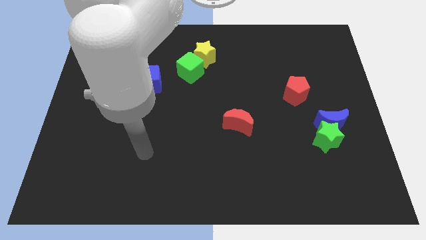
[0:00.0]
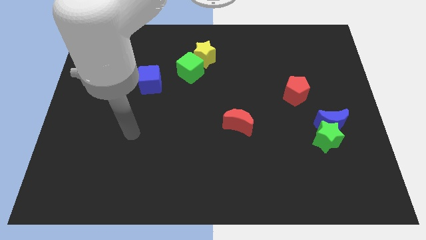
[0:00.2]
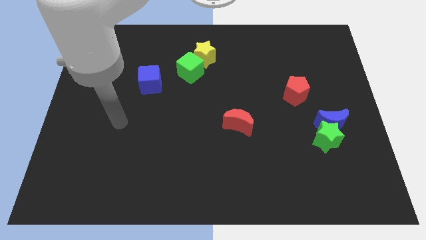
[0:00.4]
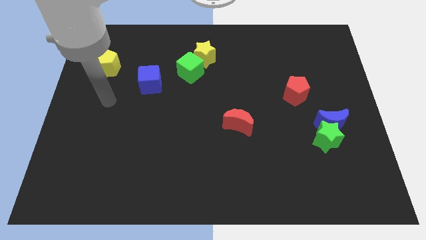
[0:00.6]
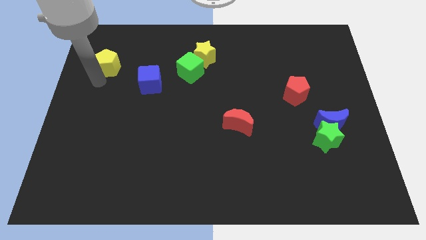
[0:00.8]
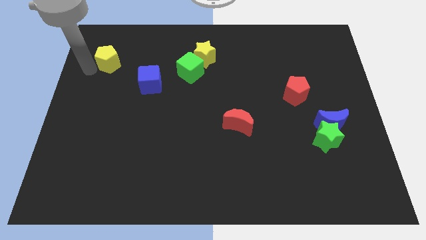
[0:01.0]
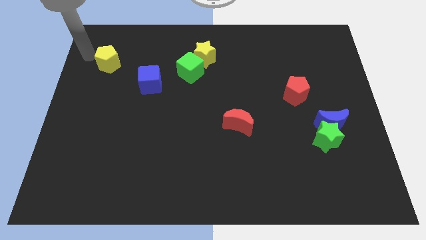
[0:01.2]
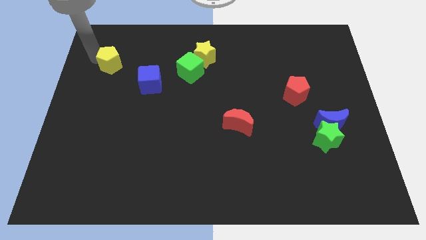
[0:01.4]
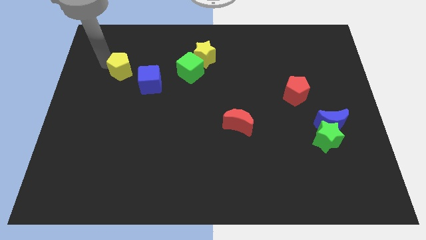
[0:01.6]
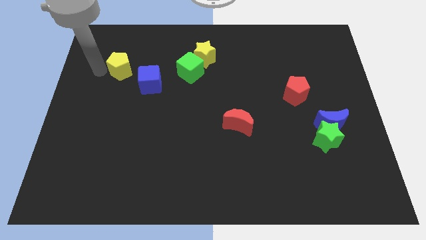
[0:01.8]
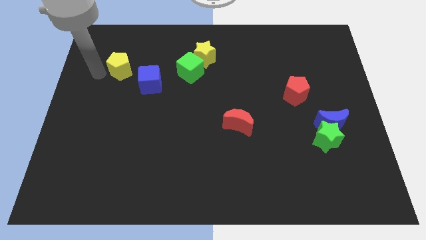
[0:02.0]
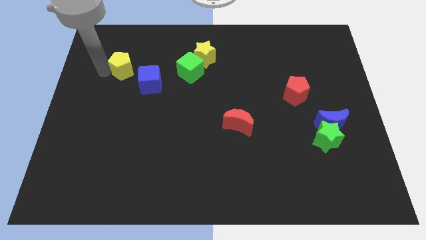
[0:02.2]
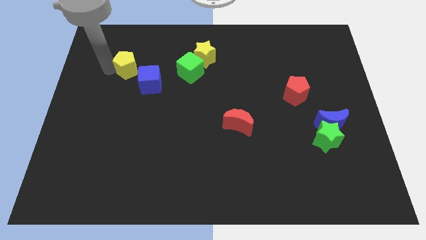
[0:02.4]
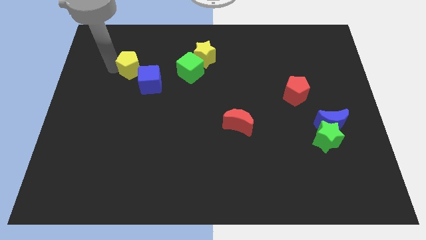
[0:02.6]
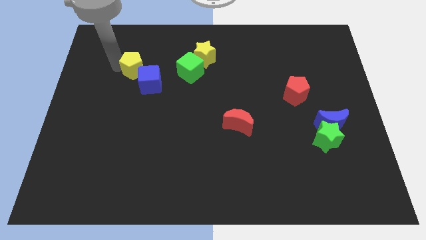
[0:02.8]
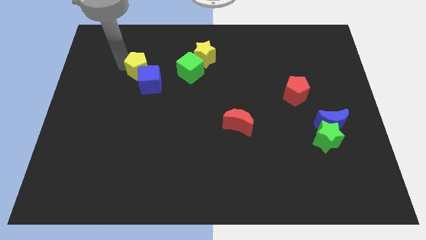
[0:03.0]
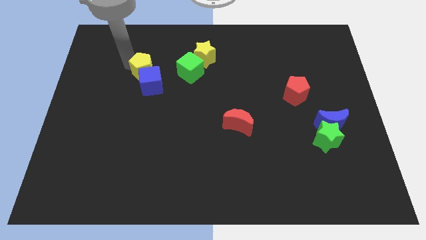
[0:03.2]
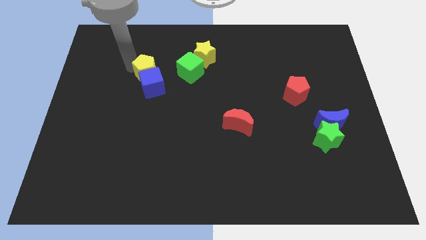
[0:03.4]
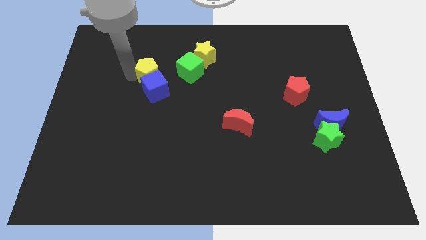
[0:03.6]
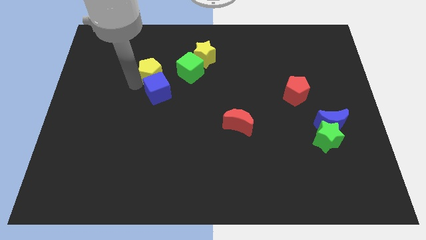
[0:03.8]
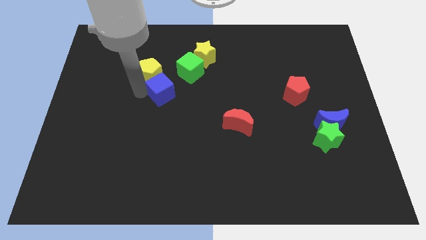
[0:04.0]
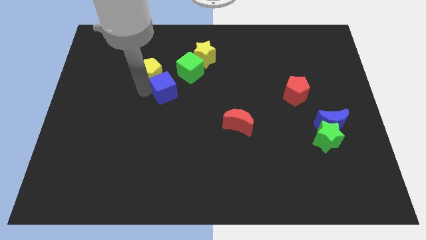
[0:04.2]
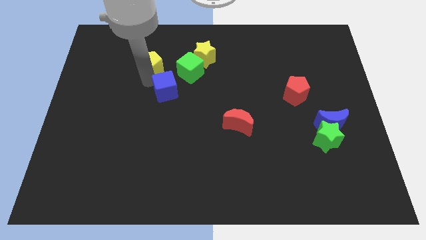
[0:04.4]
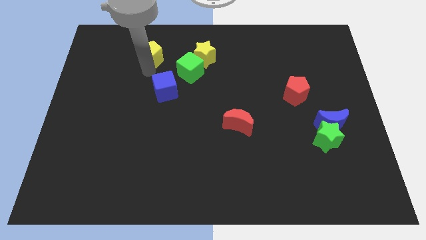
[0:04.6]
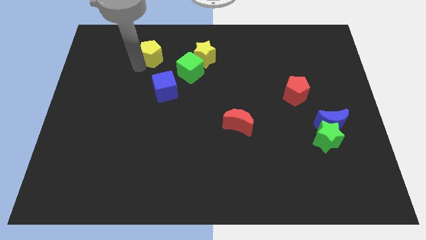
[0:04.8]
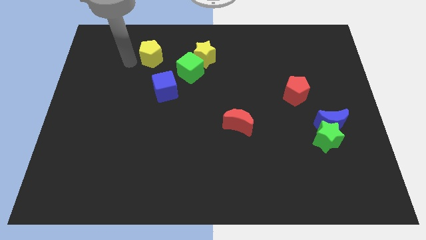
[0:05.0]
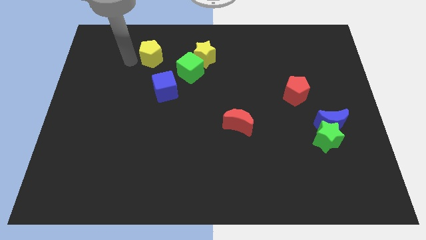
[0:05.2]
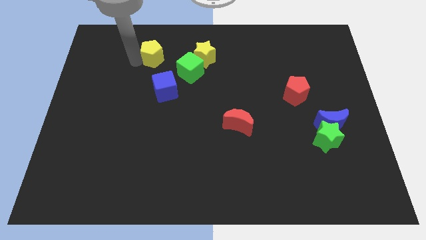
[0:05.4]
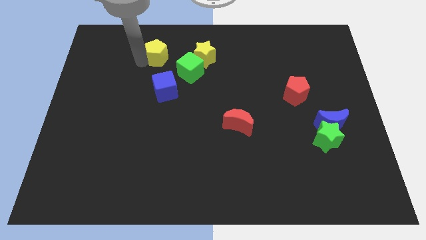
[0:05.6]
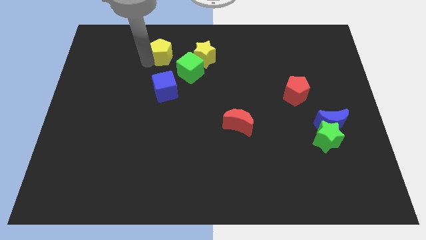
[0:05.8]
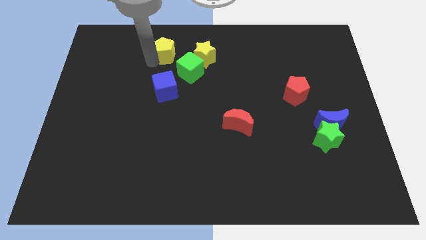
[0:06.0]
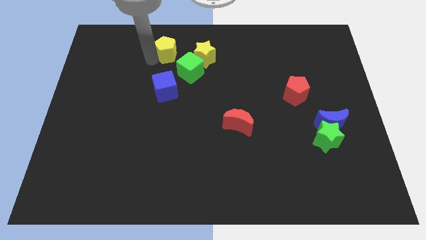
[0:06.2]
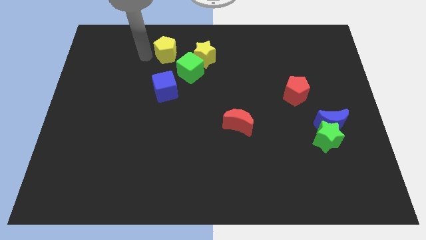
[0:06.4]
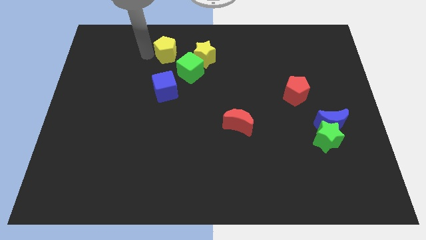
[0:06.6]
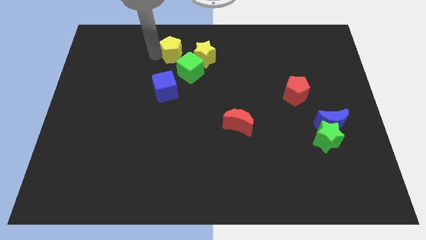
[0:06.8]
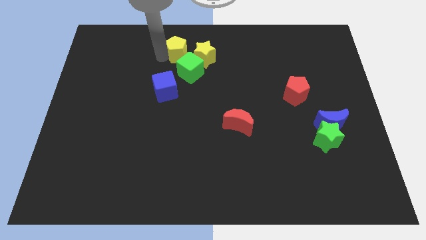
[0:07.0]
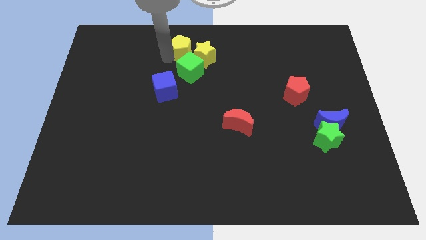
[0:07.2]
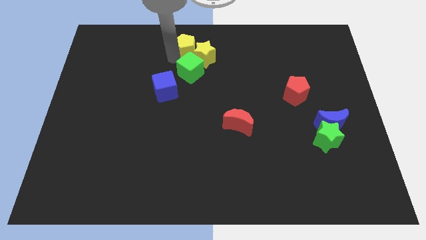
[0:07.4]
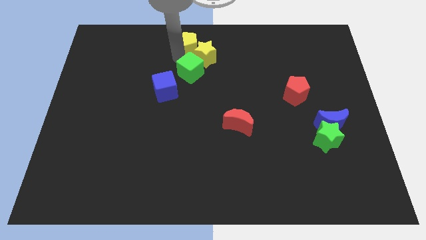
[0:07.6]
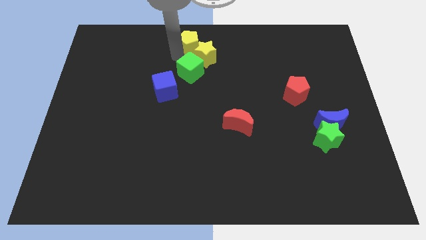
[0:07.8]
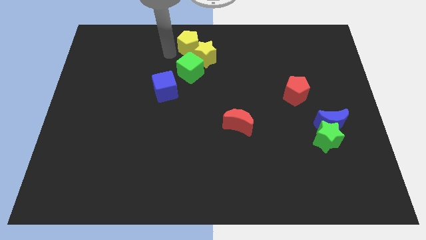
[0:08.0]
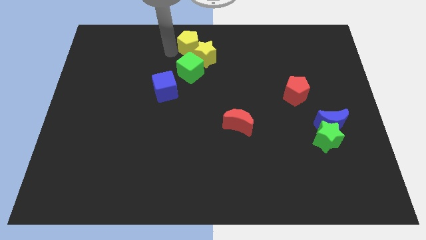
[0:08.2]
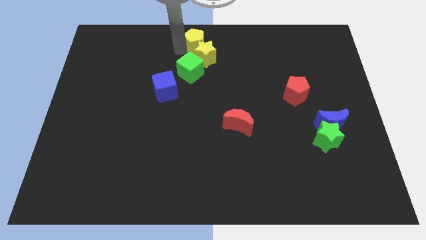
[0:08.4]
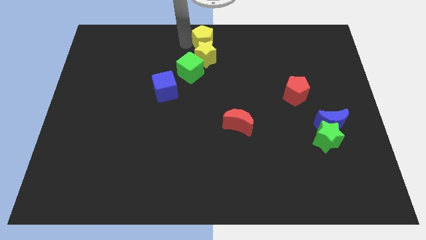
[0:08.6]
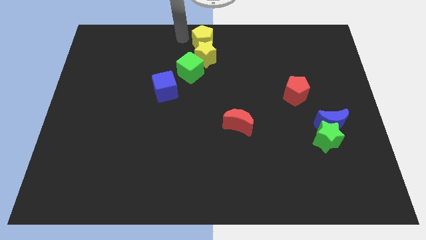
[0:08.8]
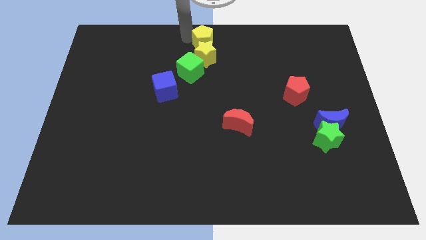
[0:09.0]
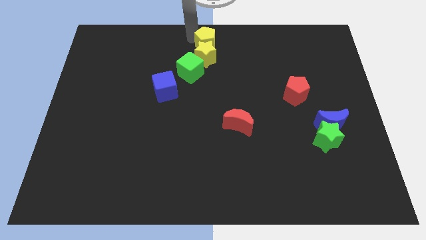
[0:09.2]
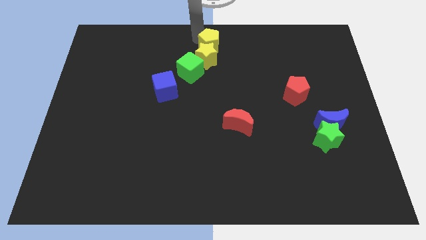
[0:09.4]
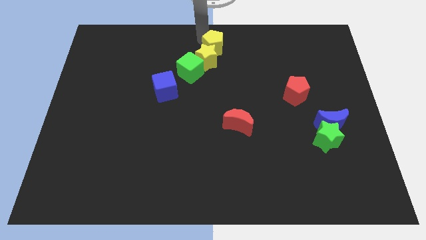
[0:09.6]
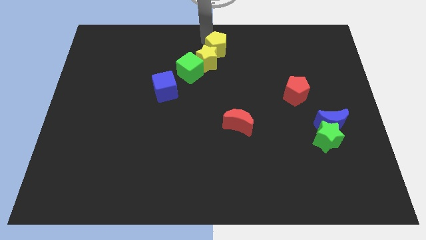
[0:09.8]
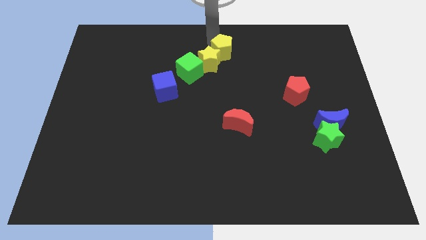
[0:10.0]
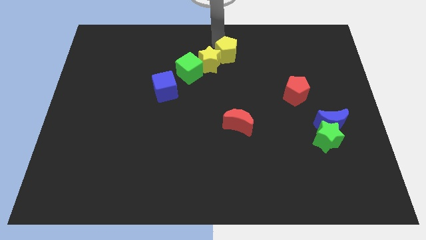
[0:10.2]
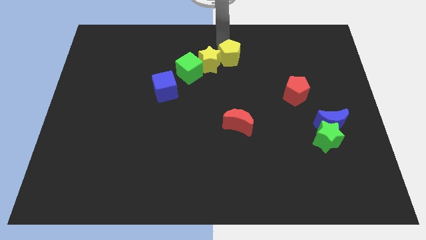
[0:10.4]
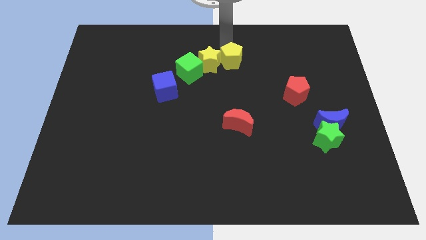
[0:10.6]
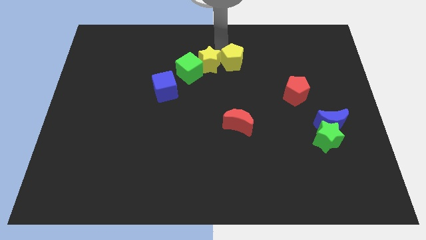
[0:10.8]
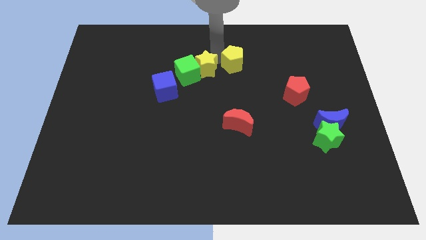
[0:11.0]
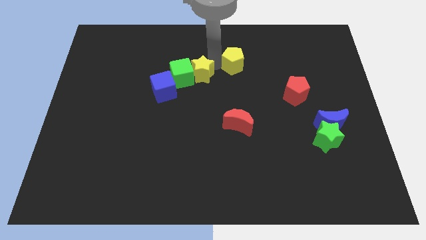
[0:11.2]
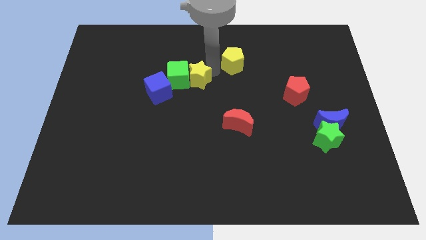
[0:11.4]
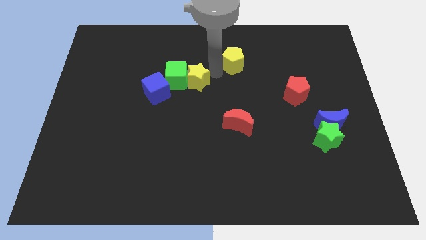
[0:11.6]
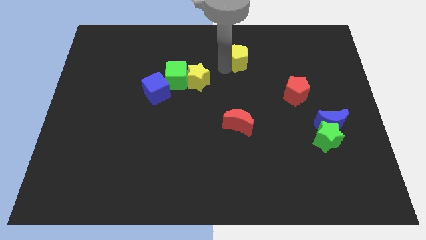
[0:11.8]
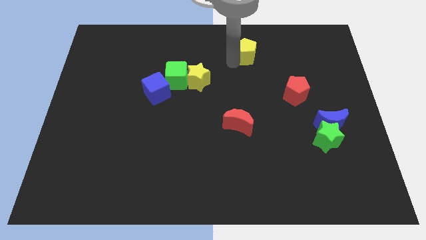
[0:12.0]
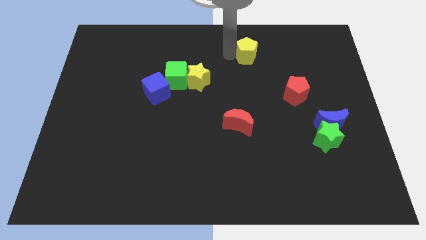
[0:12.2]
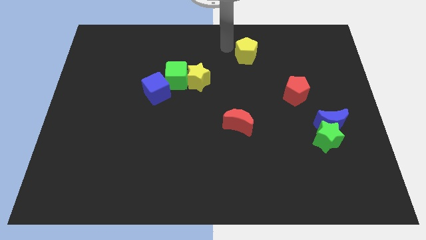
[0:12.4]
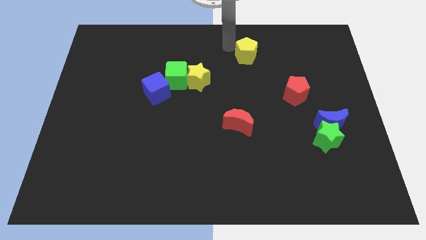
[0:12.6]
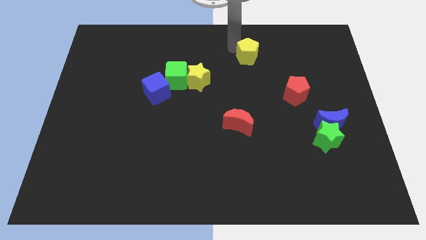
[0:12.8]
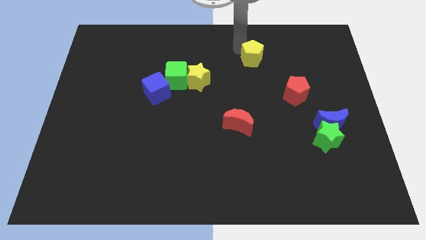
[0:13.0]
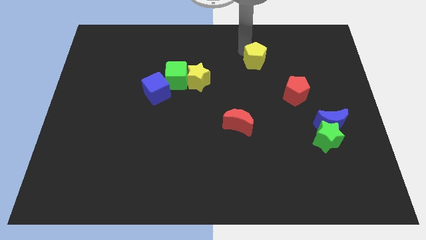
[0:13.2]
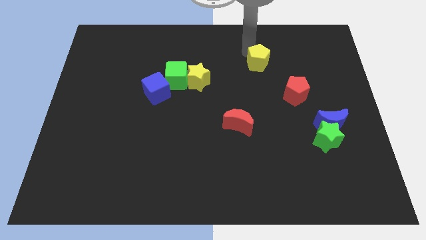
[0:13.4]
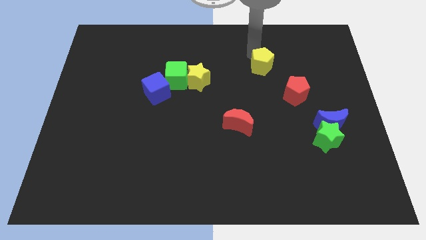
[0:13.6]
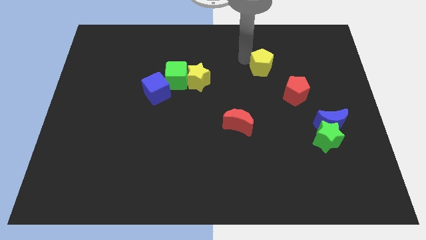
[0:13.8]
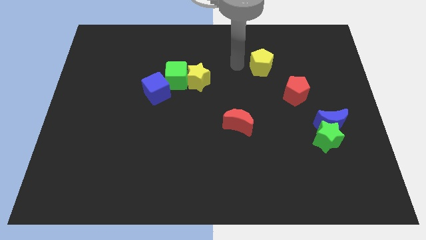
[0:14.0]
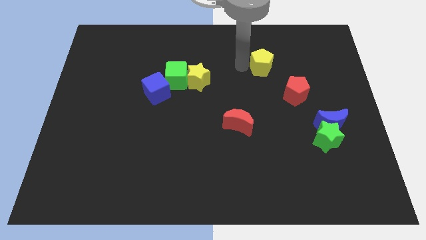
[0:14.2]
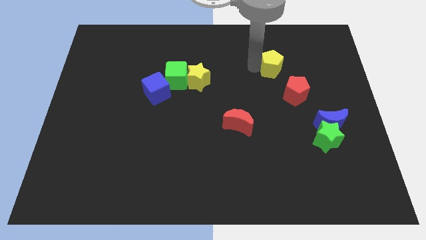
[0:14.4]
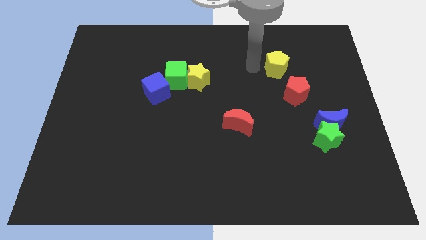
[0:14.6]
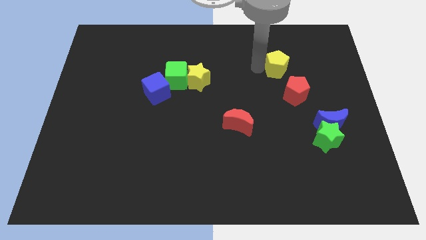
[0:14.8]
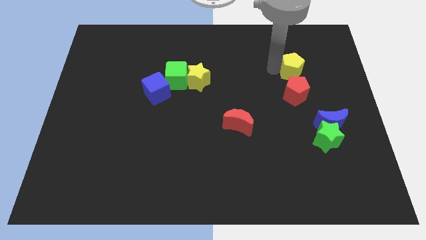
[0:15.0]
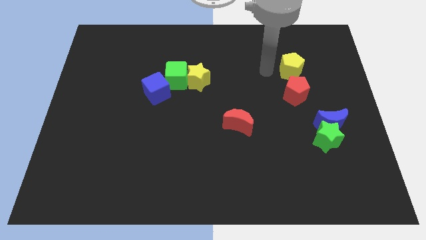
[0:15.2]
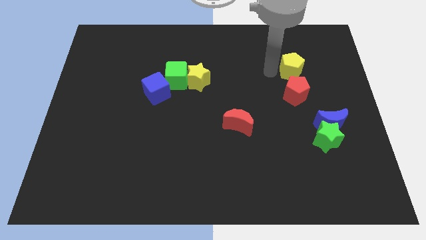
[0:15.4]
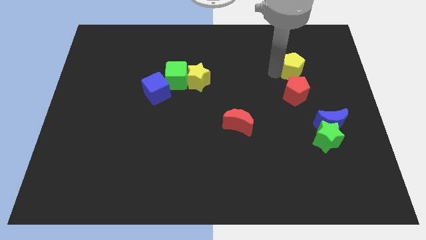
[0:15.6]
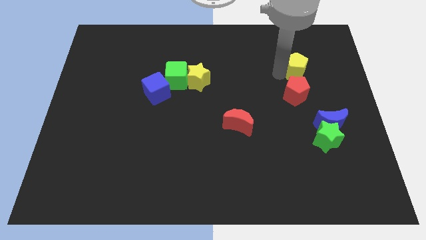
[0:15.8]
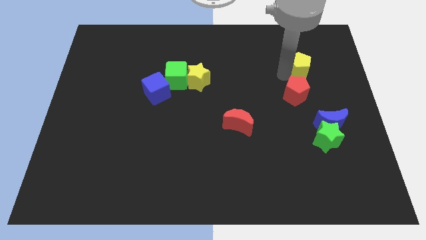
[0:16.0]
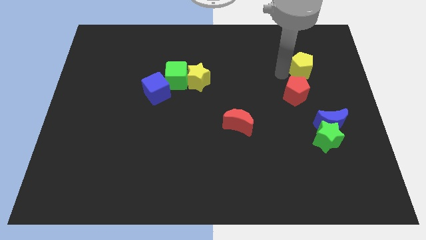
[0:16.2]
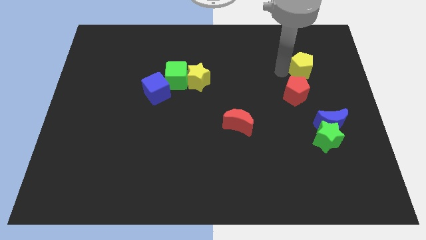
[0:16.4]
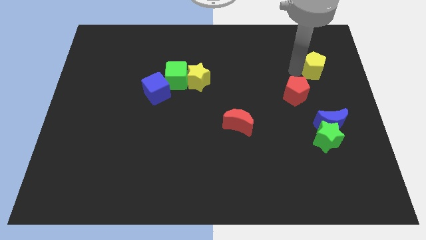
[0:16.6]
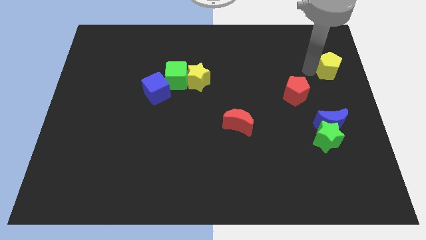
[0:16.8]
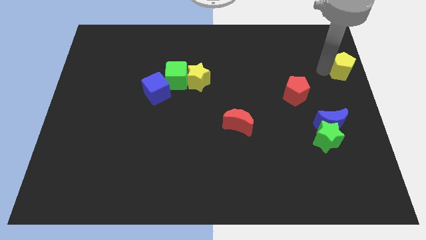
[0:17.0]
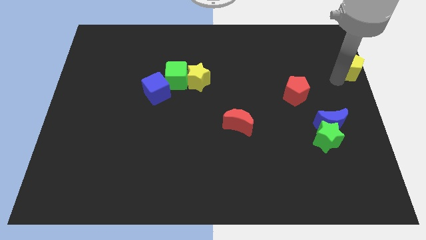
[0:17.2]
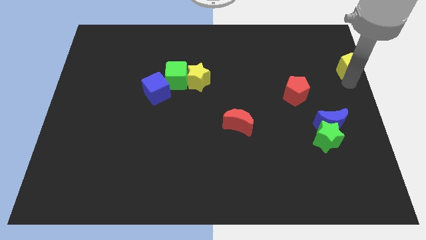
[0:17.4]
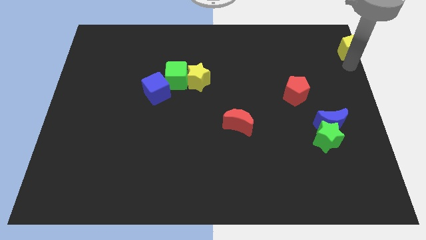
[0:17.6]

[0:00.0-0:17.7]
put the yellow pentagon to the upper right corner
